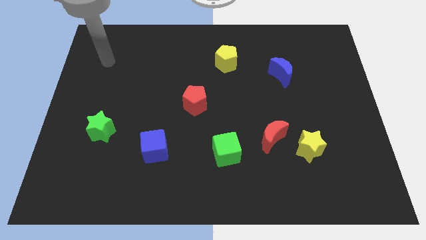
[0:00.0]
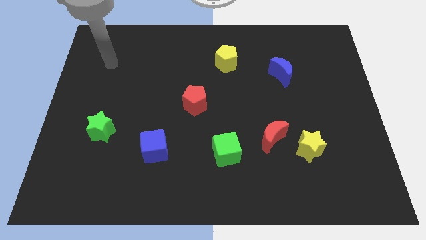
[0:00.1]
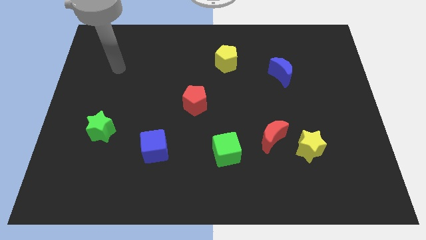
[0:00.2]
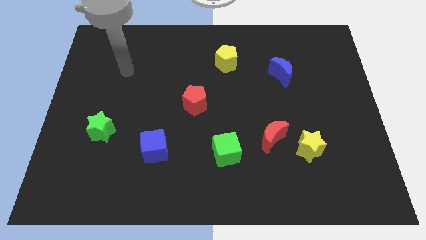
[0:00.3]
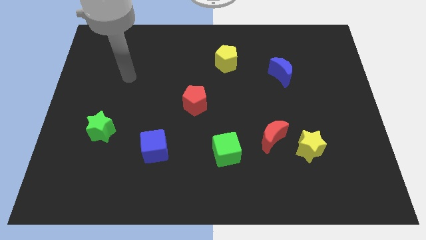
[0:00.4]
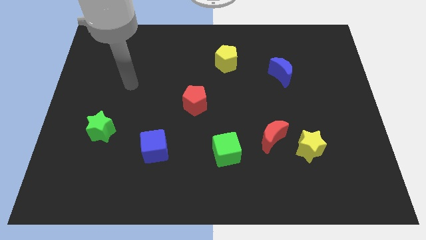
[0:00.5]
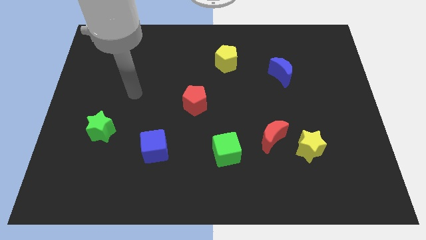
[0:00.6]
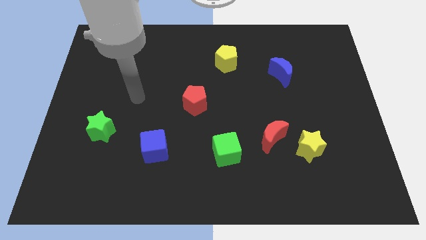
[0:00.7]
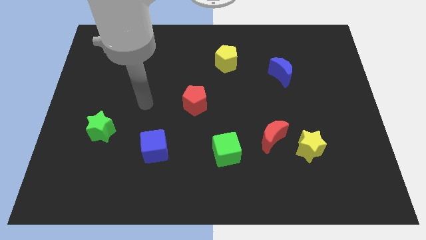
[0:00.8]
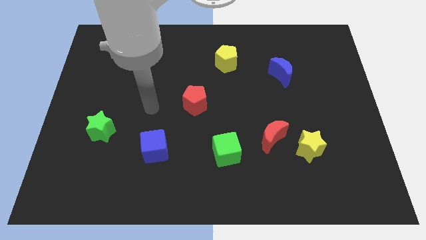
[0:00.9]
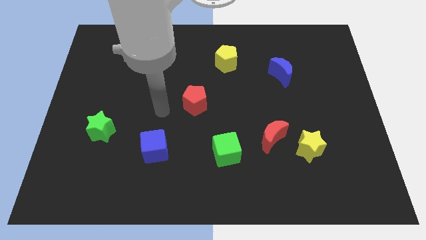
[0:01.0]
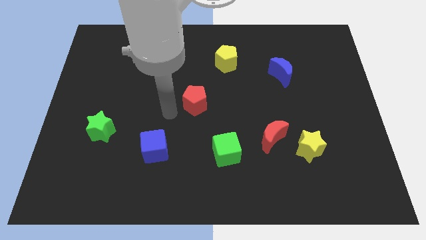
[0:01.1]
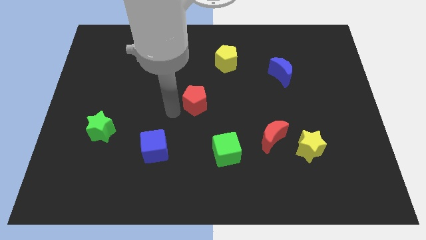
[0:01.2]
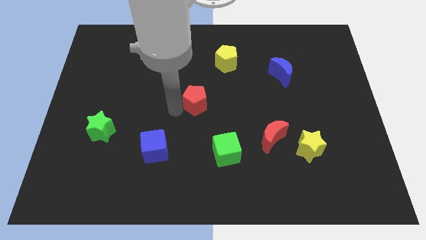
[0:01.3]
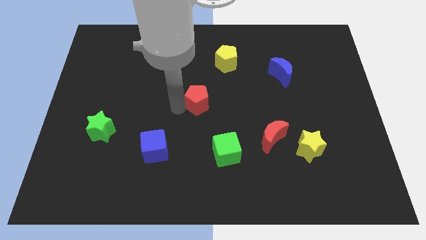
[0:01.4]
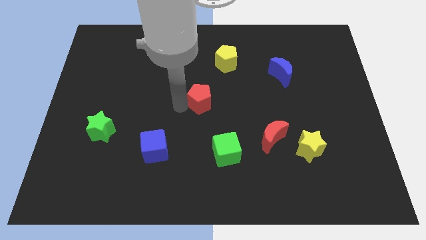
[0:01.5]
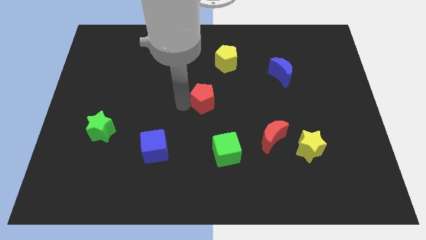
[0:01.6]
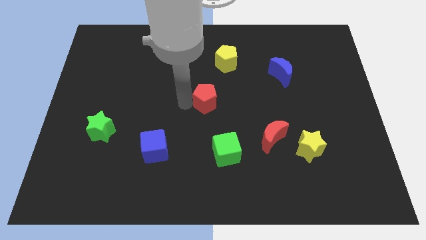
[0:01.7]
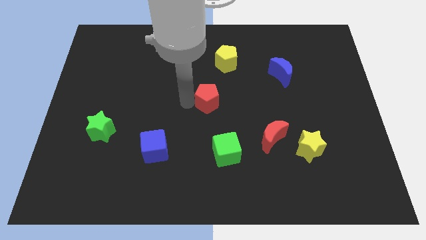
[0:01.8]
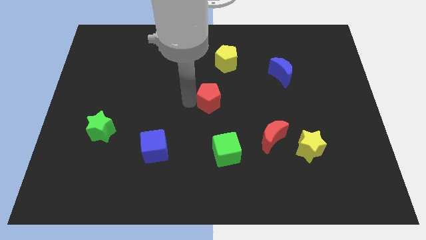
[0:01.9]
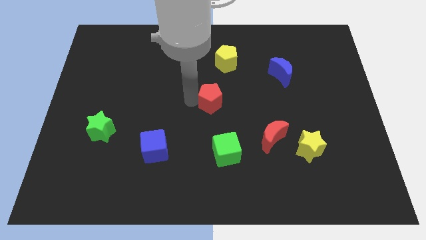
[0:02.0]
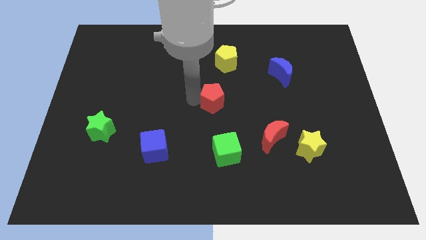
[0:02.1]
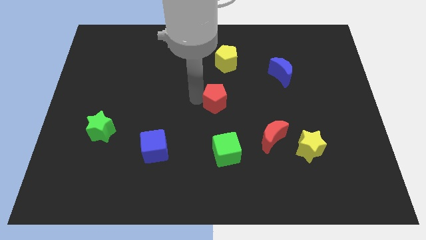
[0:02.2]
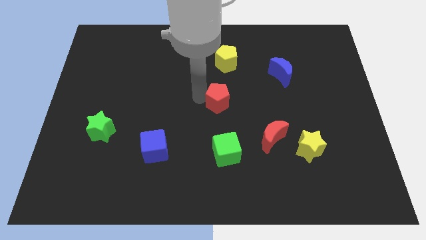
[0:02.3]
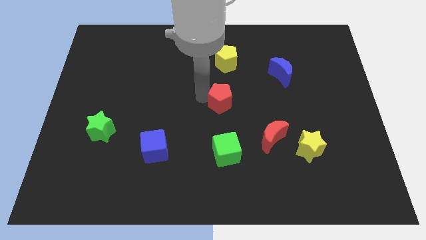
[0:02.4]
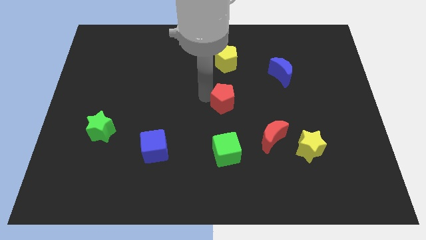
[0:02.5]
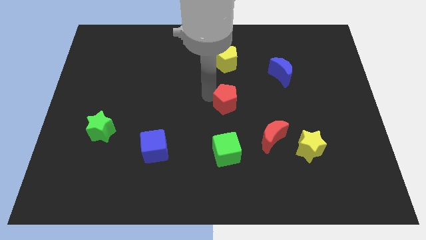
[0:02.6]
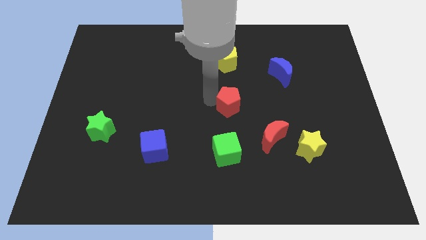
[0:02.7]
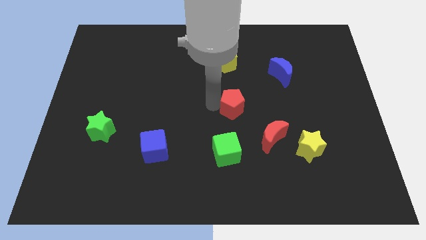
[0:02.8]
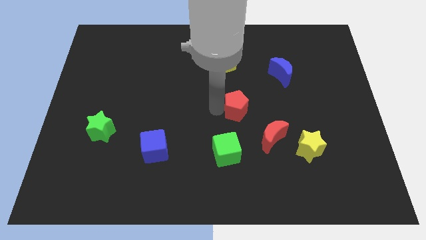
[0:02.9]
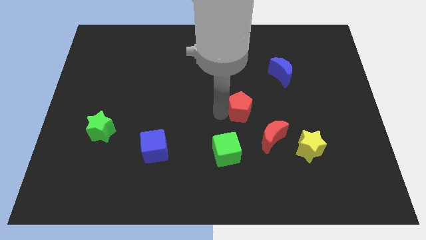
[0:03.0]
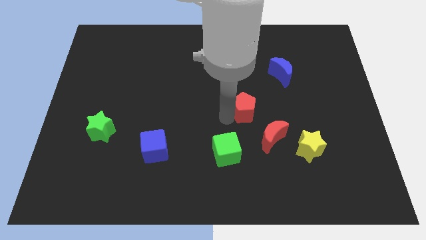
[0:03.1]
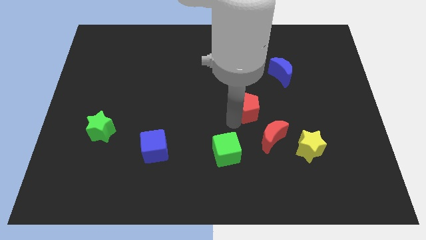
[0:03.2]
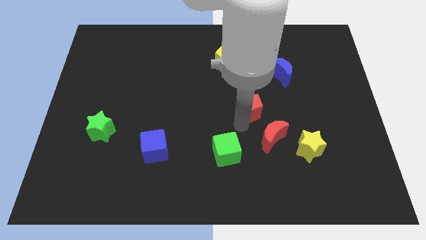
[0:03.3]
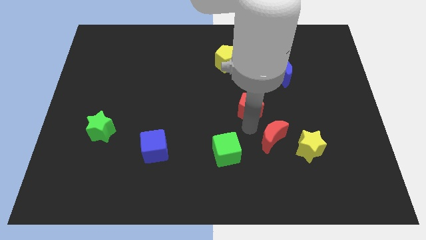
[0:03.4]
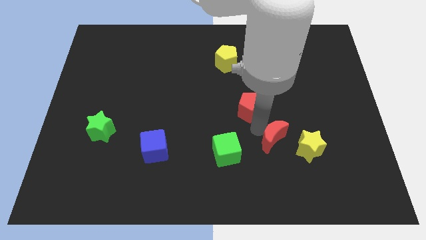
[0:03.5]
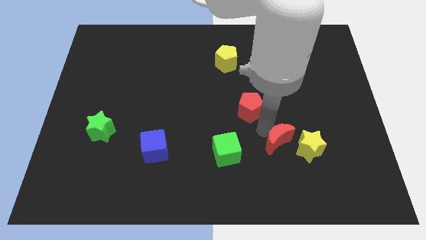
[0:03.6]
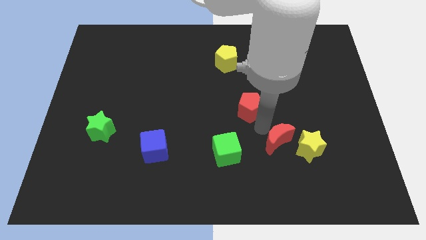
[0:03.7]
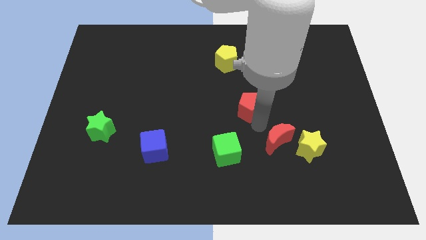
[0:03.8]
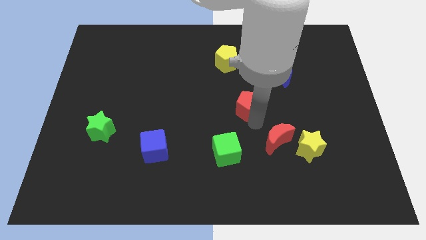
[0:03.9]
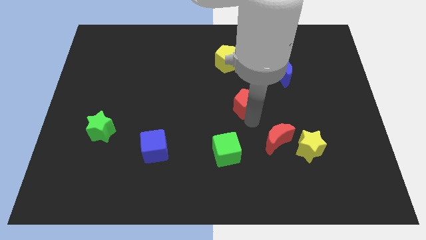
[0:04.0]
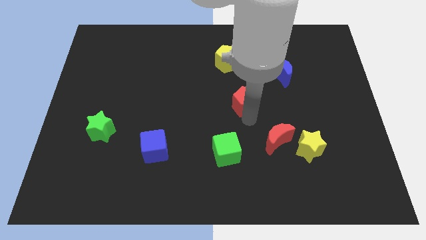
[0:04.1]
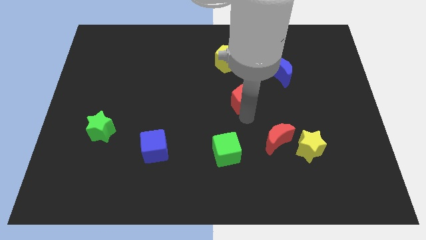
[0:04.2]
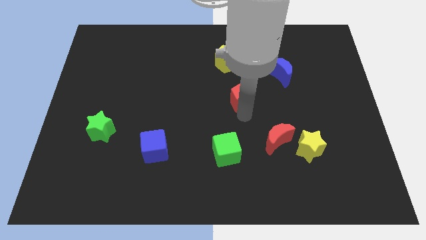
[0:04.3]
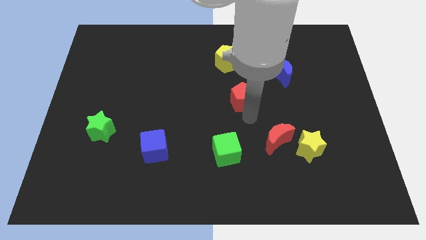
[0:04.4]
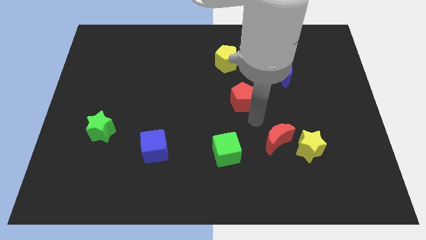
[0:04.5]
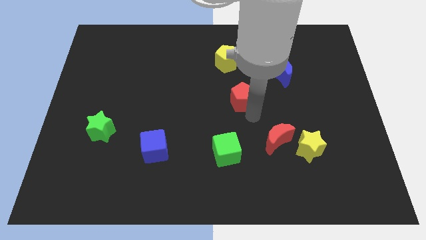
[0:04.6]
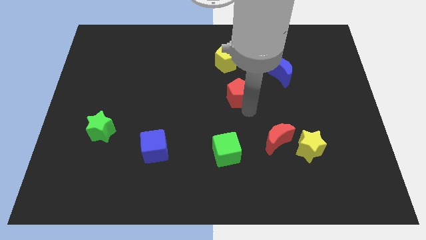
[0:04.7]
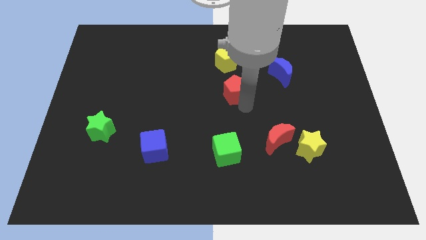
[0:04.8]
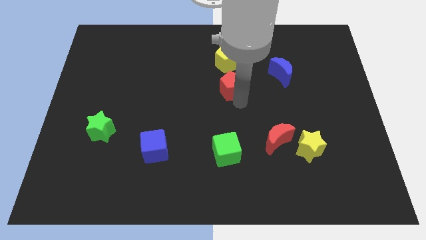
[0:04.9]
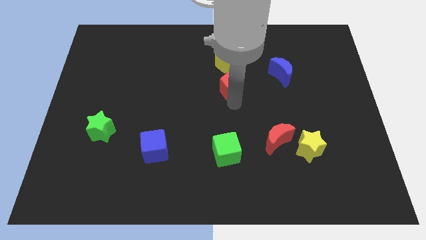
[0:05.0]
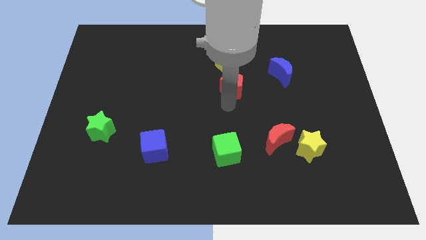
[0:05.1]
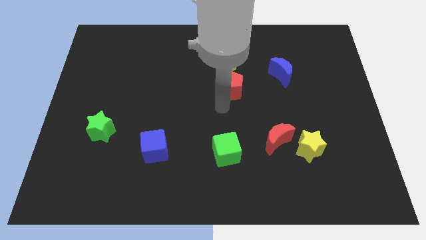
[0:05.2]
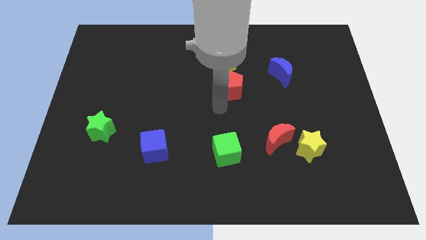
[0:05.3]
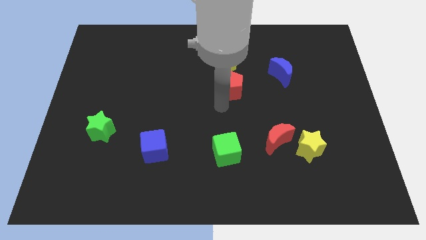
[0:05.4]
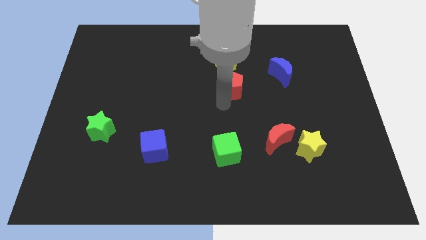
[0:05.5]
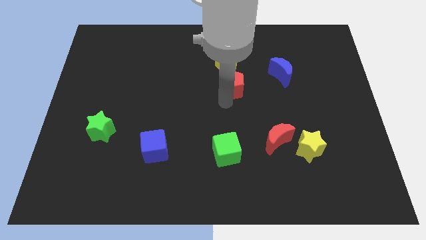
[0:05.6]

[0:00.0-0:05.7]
slide the red pentagon to the left side of the blue moon

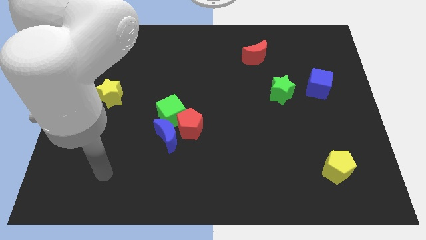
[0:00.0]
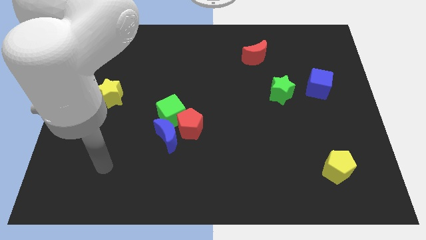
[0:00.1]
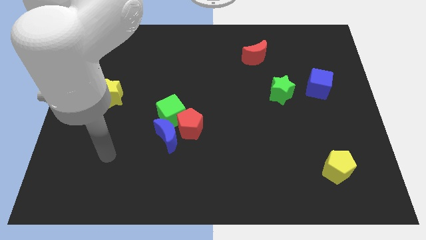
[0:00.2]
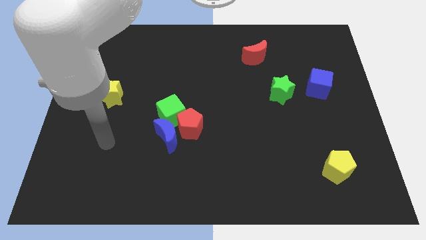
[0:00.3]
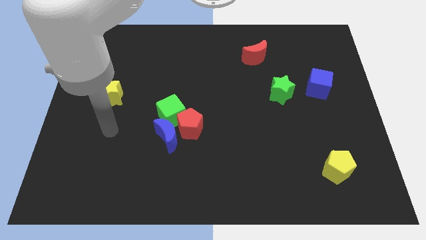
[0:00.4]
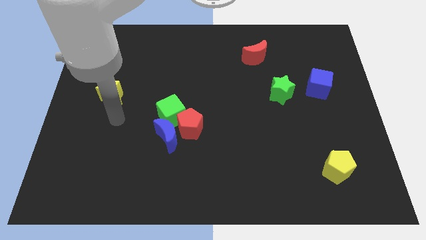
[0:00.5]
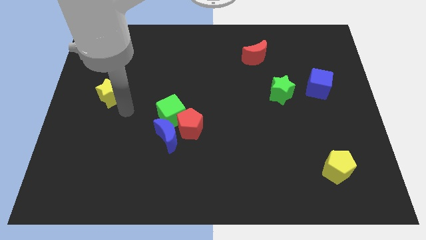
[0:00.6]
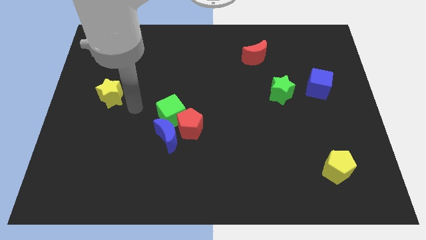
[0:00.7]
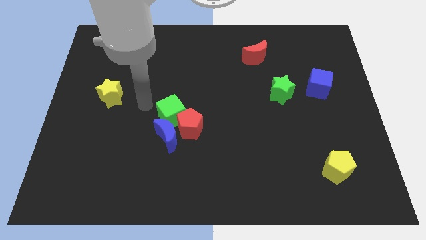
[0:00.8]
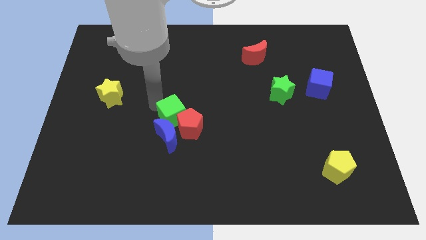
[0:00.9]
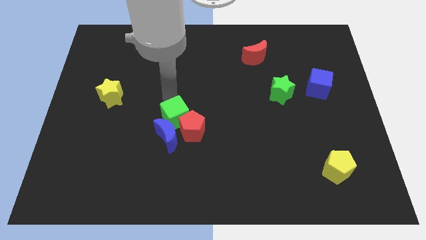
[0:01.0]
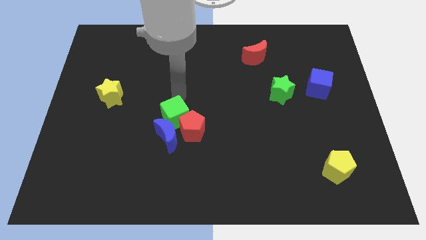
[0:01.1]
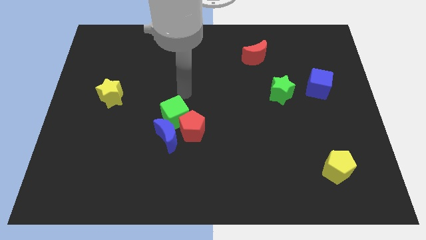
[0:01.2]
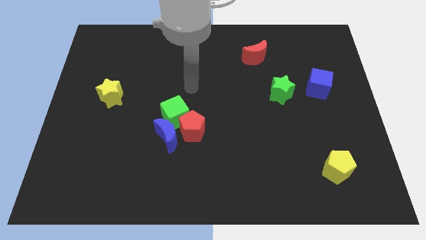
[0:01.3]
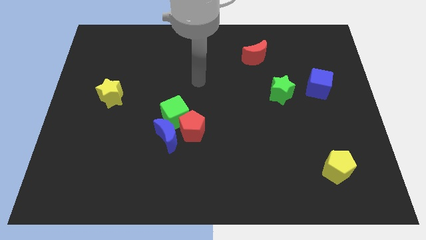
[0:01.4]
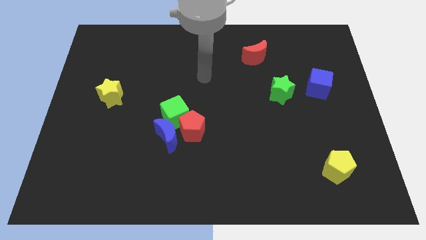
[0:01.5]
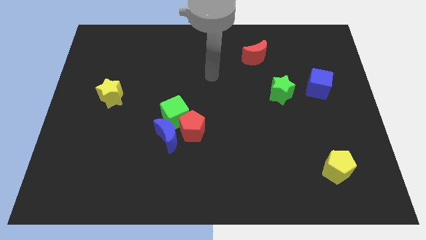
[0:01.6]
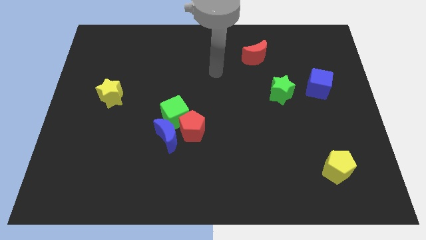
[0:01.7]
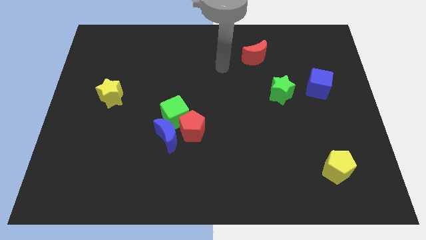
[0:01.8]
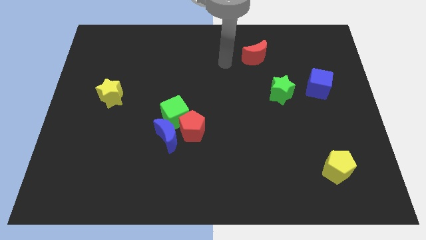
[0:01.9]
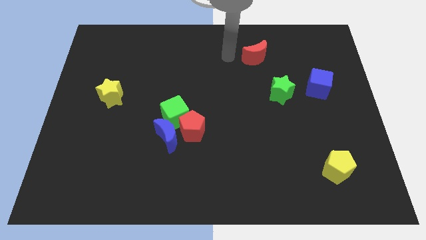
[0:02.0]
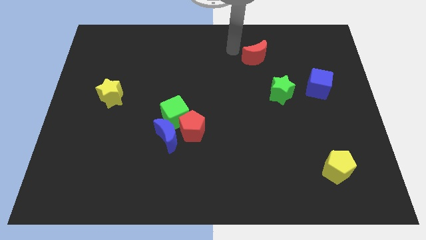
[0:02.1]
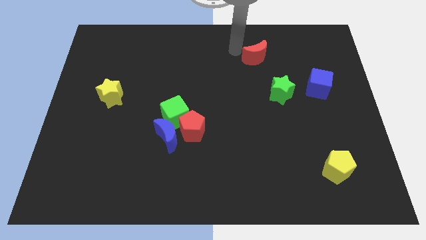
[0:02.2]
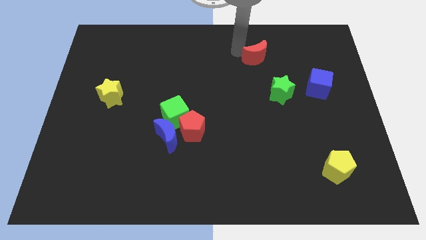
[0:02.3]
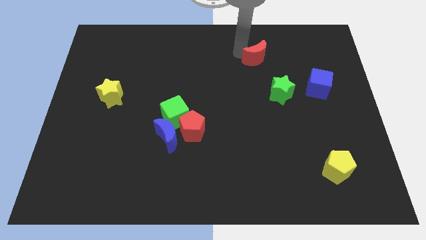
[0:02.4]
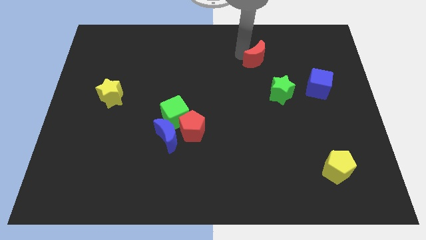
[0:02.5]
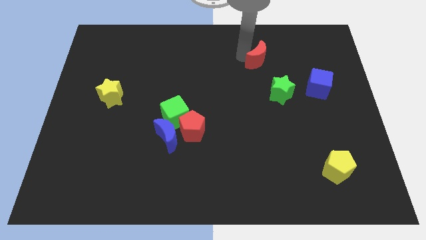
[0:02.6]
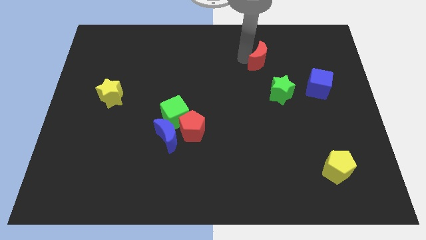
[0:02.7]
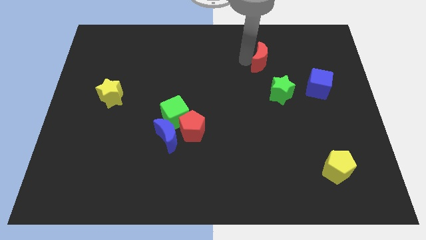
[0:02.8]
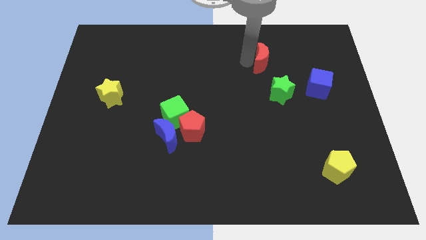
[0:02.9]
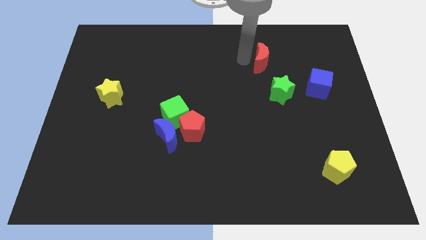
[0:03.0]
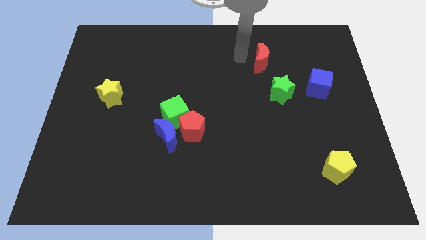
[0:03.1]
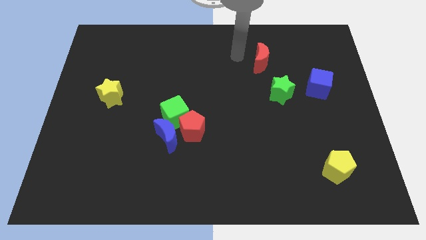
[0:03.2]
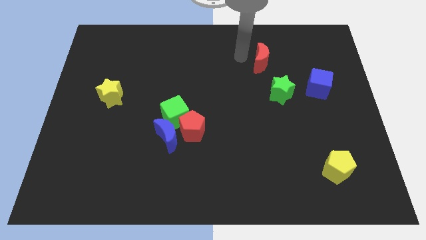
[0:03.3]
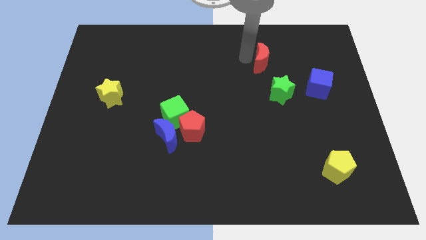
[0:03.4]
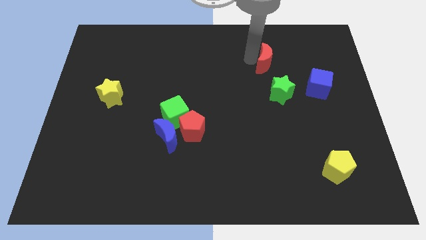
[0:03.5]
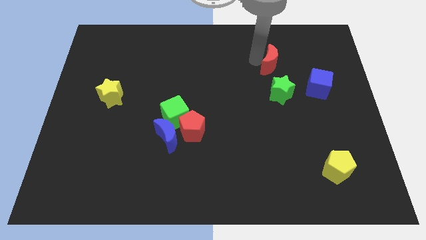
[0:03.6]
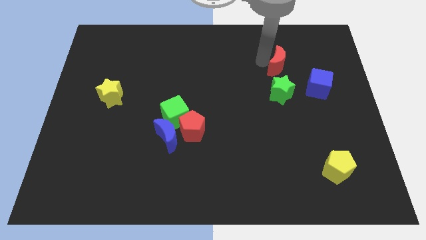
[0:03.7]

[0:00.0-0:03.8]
push the red moon to the top left of the blue cube
